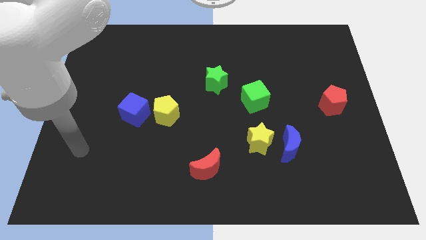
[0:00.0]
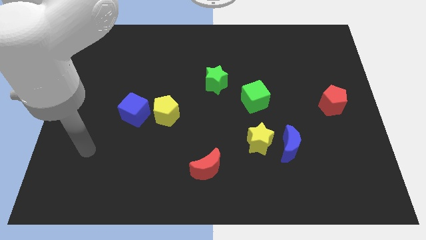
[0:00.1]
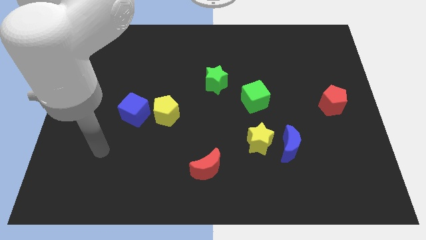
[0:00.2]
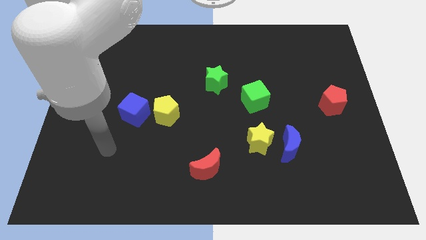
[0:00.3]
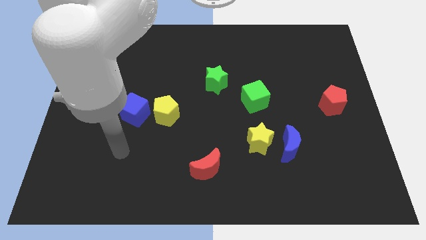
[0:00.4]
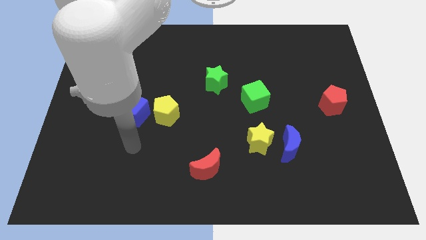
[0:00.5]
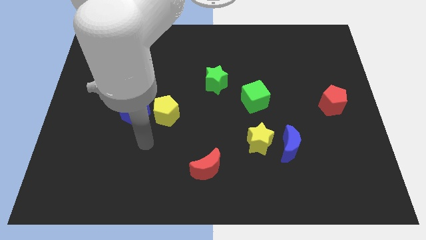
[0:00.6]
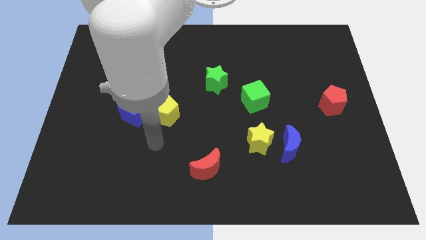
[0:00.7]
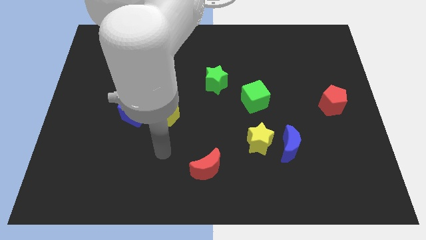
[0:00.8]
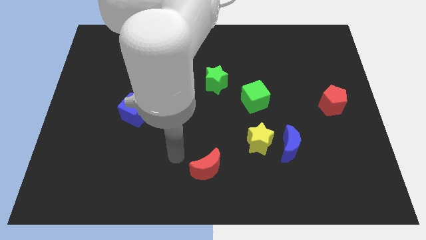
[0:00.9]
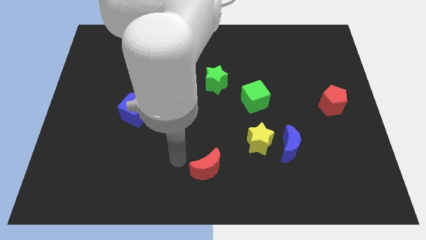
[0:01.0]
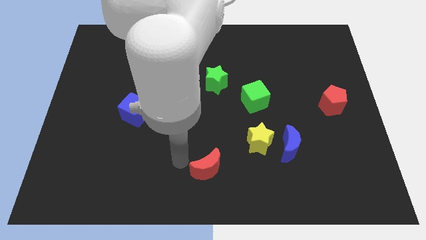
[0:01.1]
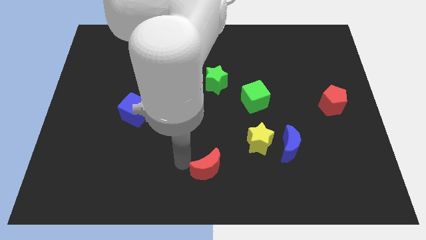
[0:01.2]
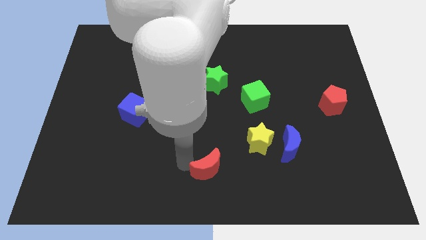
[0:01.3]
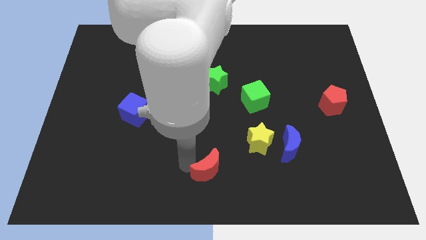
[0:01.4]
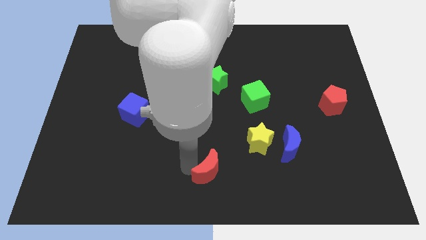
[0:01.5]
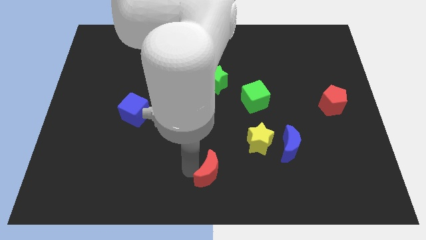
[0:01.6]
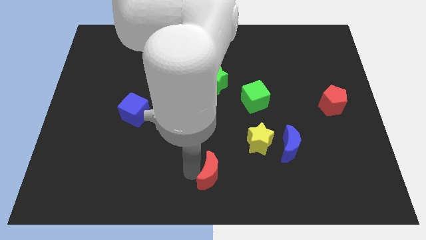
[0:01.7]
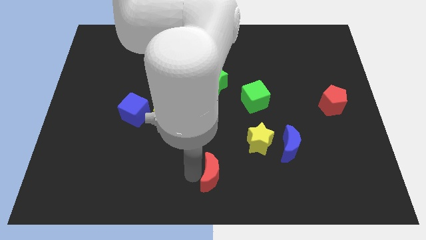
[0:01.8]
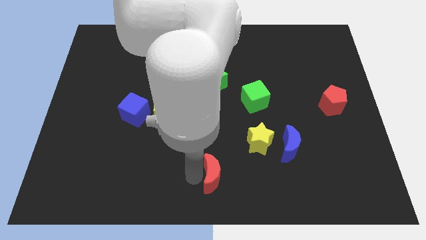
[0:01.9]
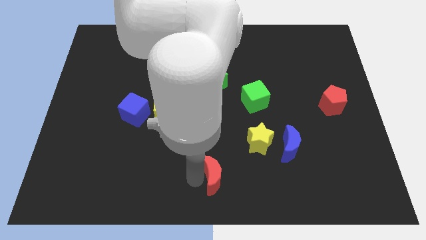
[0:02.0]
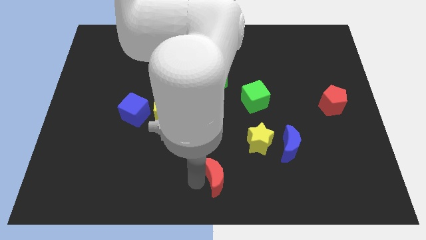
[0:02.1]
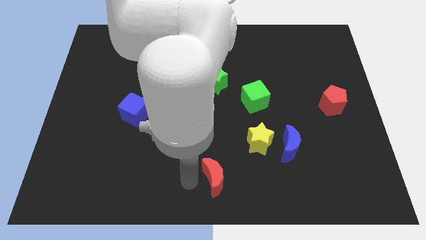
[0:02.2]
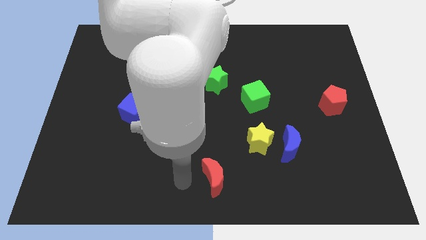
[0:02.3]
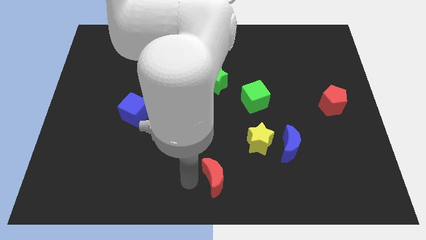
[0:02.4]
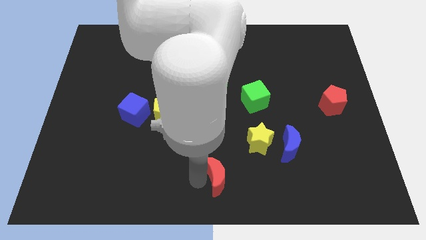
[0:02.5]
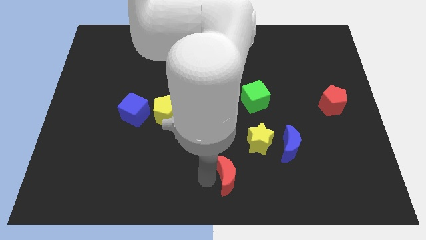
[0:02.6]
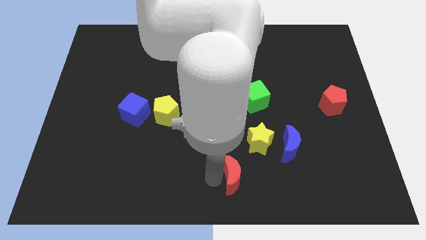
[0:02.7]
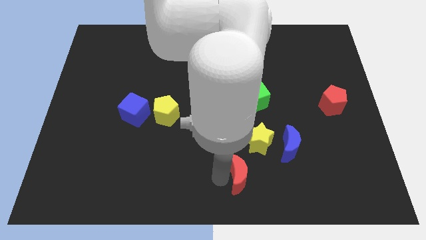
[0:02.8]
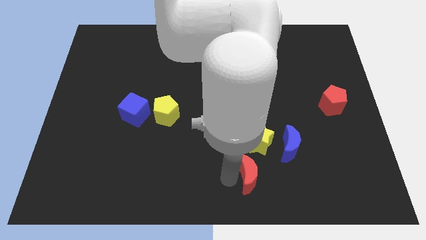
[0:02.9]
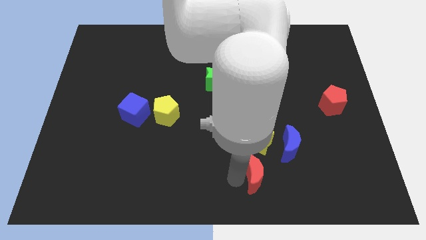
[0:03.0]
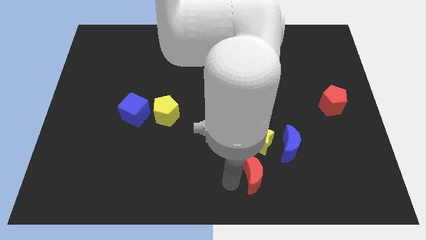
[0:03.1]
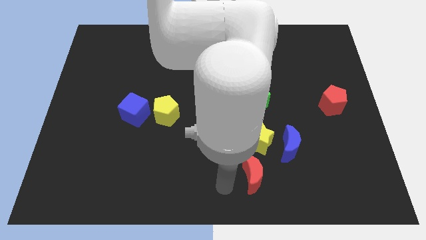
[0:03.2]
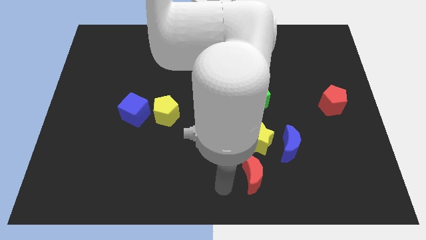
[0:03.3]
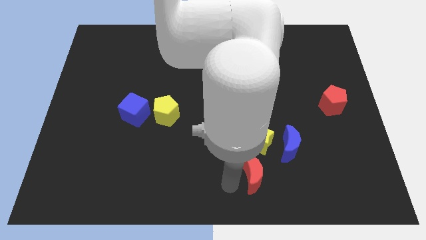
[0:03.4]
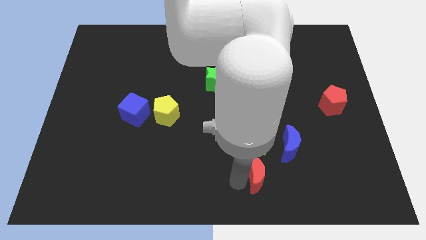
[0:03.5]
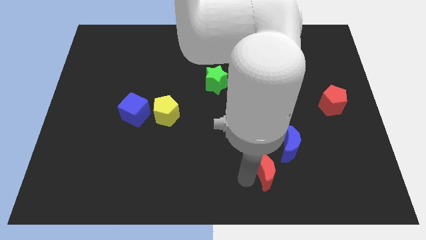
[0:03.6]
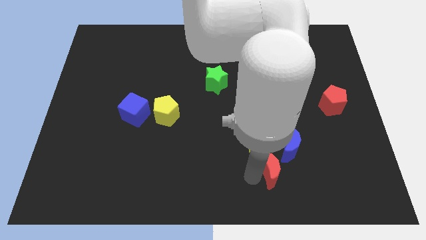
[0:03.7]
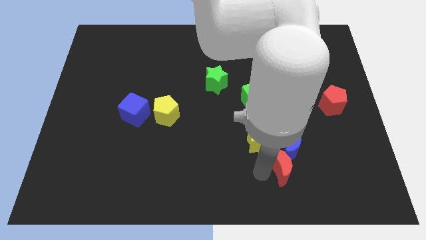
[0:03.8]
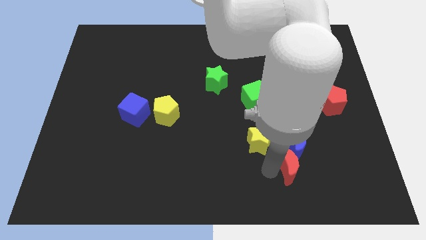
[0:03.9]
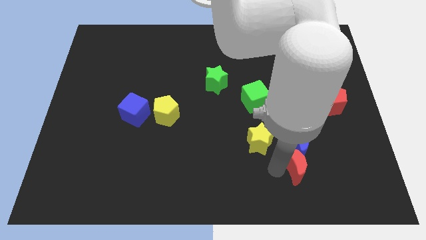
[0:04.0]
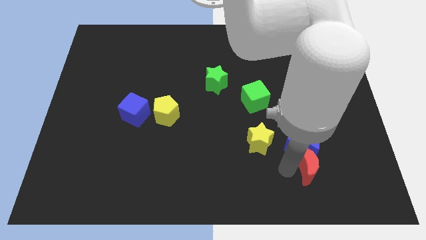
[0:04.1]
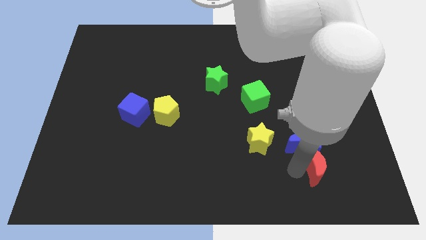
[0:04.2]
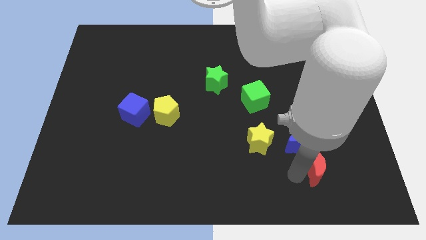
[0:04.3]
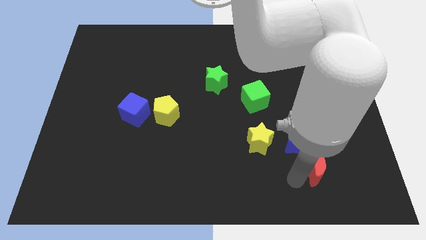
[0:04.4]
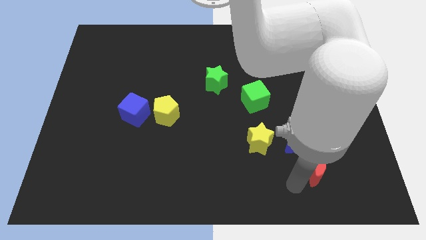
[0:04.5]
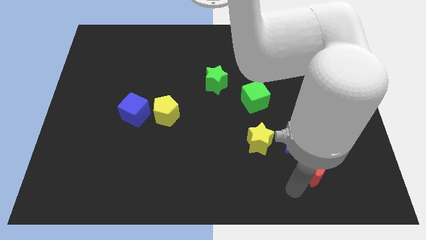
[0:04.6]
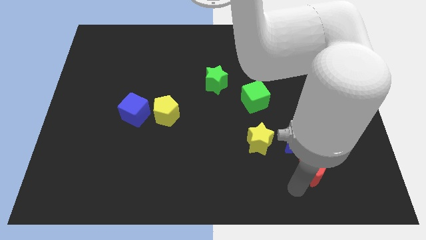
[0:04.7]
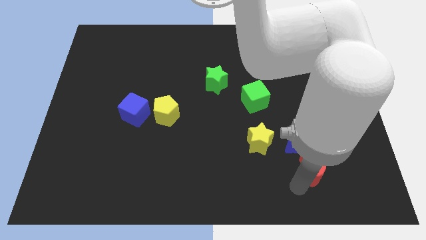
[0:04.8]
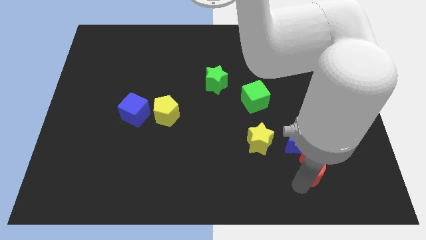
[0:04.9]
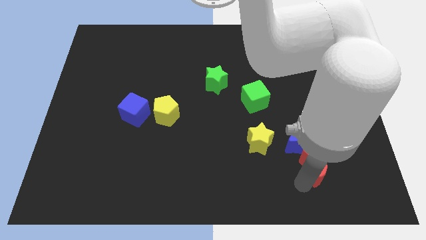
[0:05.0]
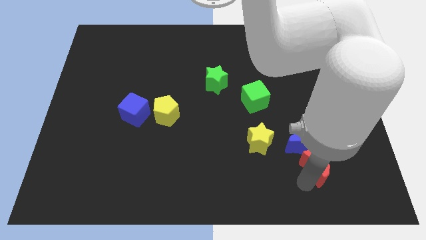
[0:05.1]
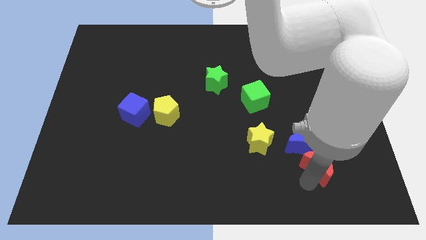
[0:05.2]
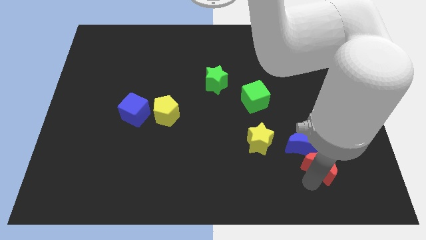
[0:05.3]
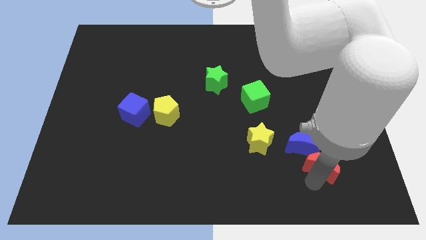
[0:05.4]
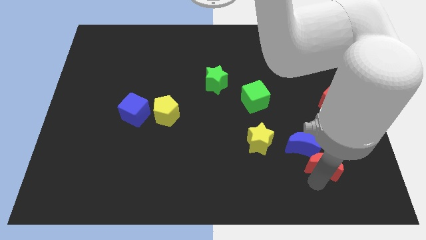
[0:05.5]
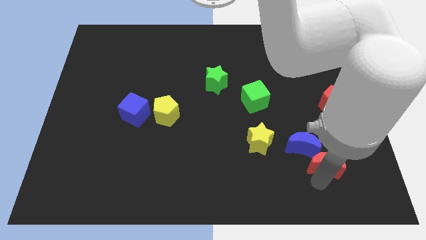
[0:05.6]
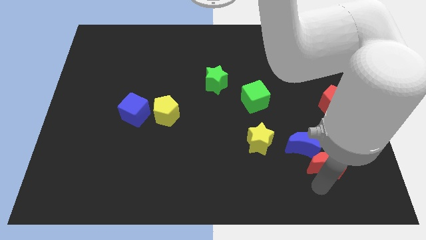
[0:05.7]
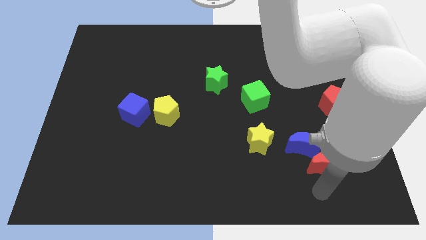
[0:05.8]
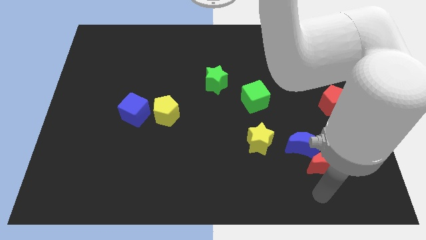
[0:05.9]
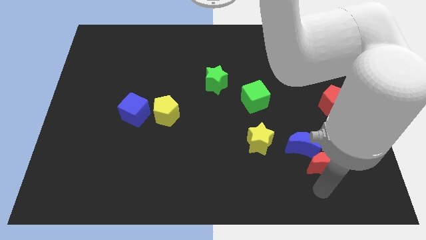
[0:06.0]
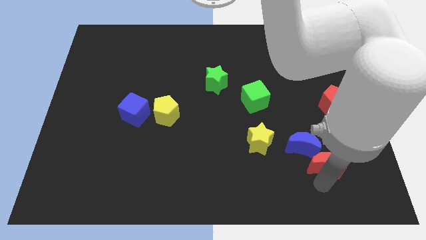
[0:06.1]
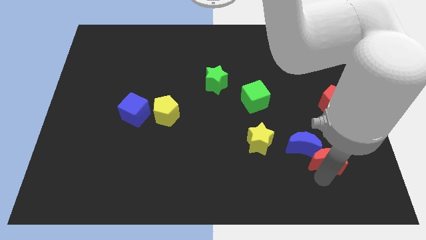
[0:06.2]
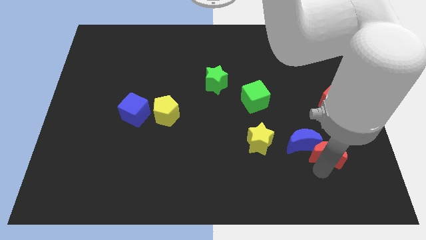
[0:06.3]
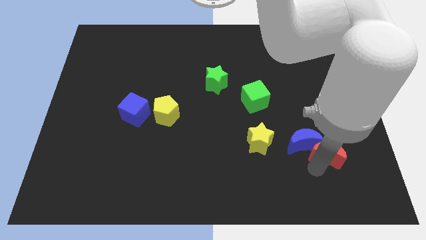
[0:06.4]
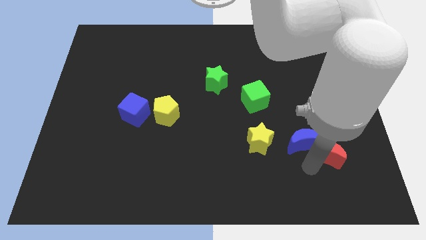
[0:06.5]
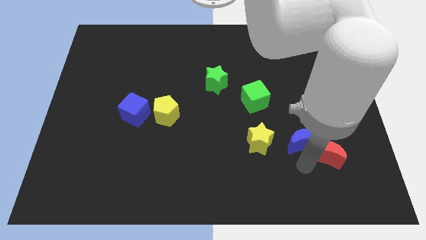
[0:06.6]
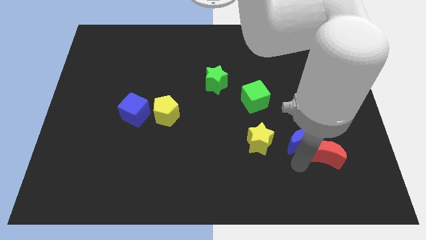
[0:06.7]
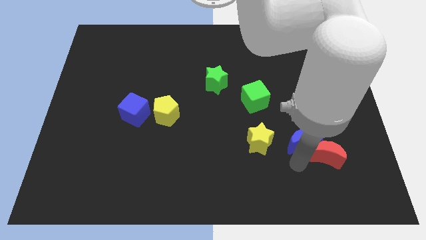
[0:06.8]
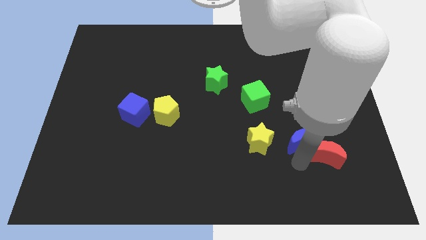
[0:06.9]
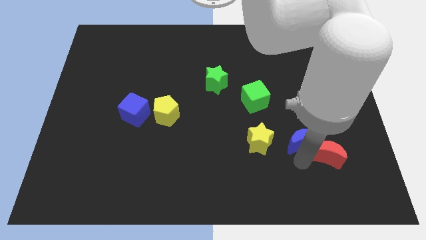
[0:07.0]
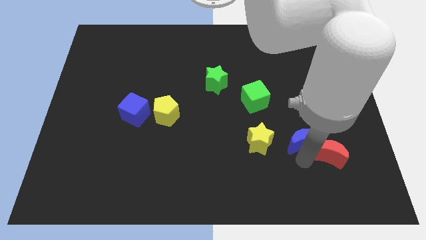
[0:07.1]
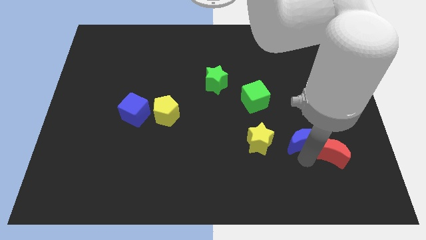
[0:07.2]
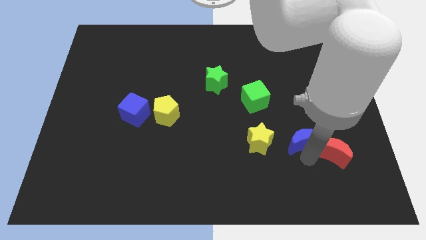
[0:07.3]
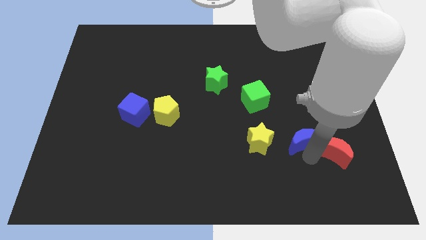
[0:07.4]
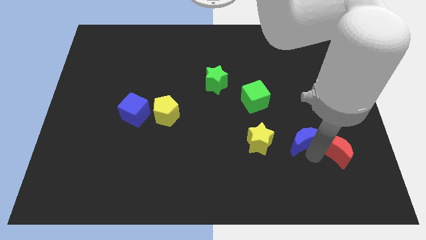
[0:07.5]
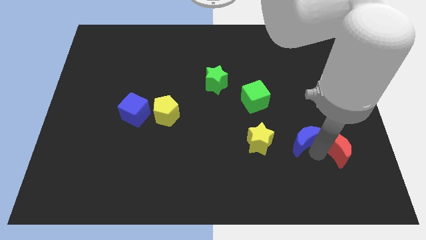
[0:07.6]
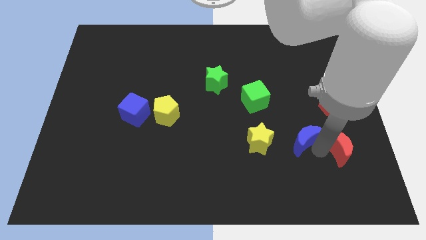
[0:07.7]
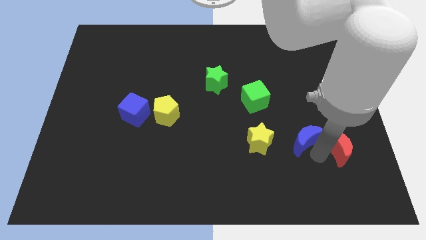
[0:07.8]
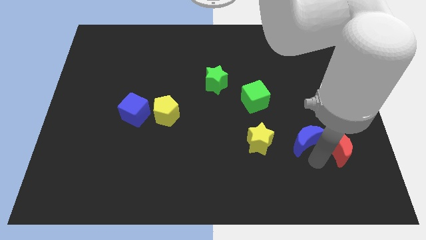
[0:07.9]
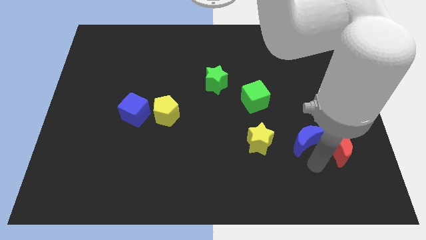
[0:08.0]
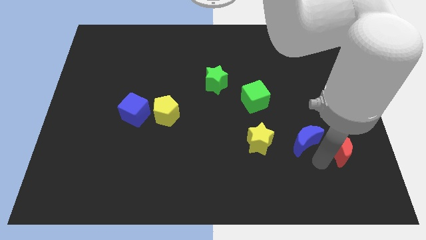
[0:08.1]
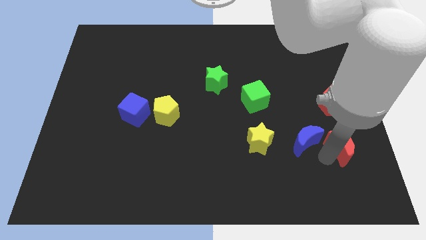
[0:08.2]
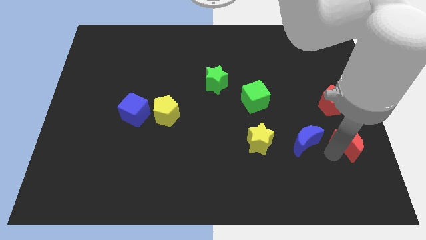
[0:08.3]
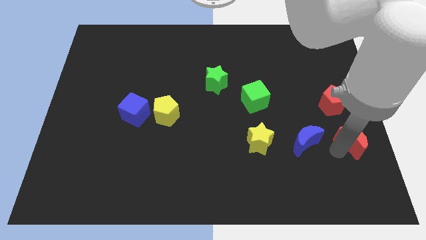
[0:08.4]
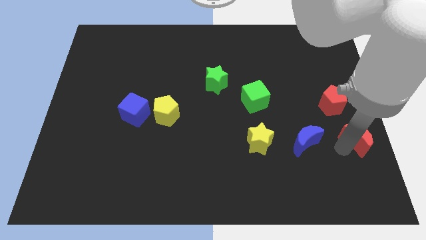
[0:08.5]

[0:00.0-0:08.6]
put the red moon to the right side
